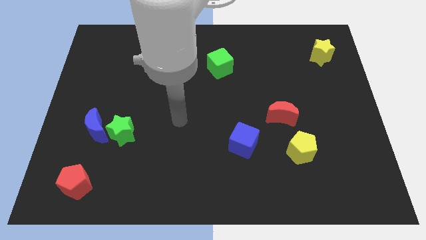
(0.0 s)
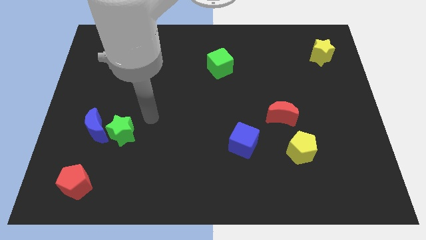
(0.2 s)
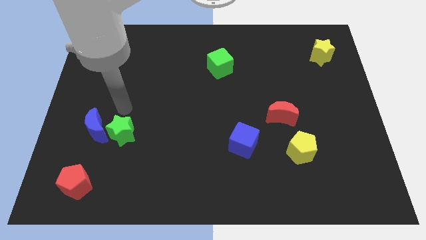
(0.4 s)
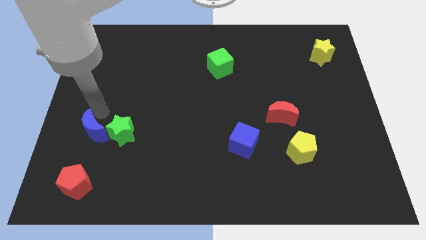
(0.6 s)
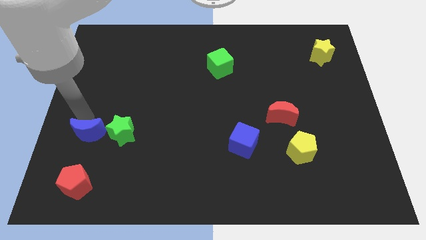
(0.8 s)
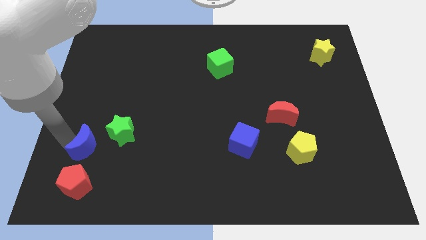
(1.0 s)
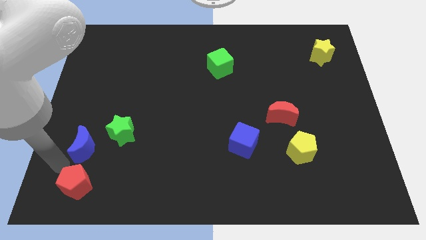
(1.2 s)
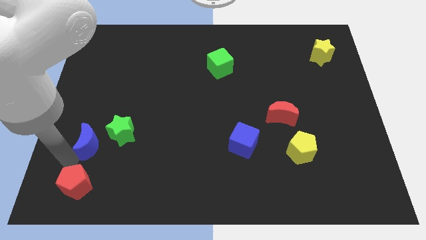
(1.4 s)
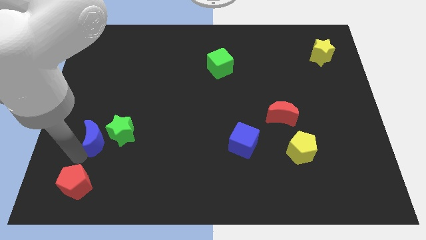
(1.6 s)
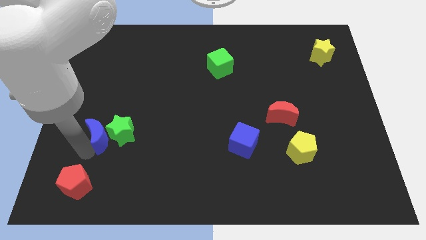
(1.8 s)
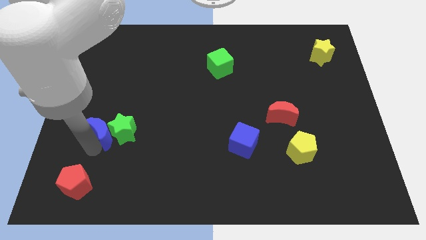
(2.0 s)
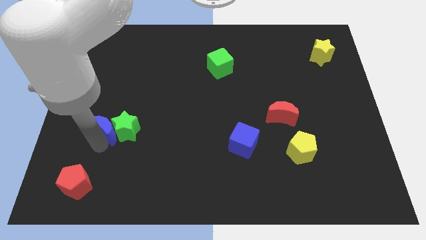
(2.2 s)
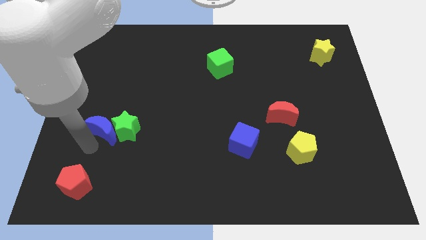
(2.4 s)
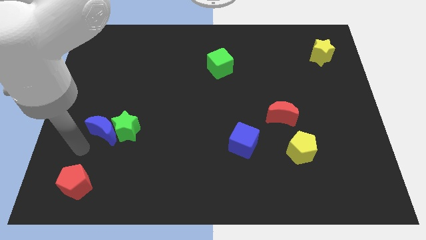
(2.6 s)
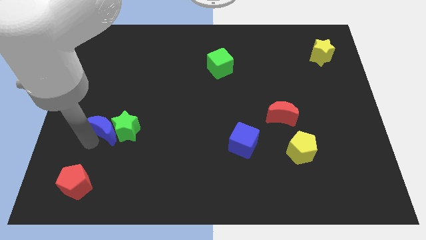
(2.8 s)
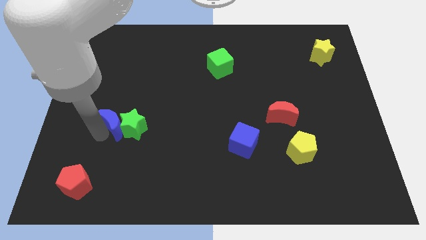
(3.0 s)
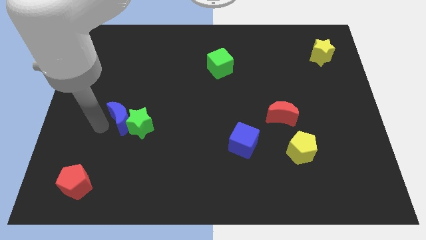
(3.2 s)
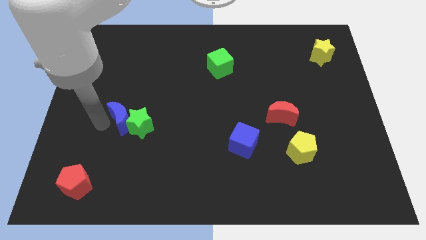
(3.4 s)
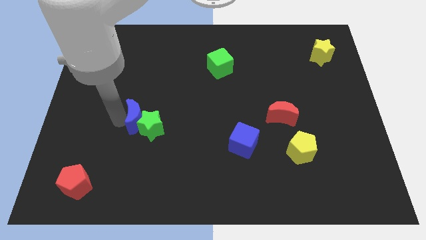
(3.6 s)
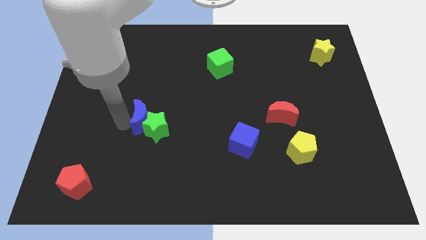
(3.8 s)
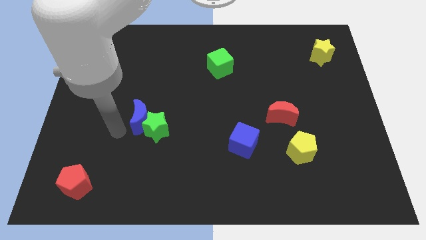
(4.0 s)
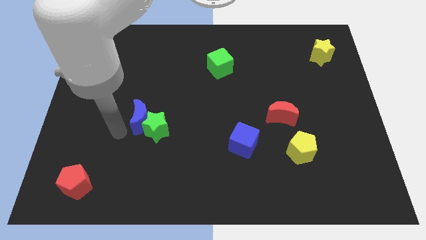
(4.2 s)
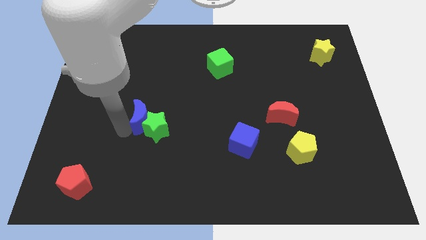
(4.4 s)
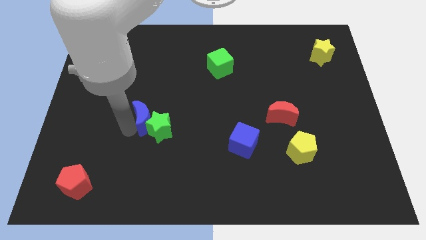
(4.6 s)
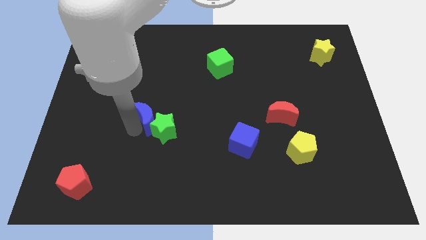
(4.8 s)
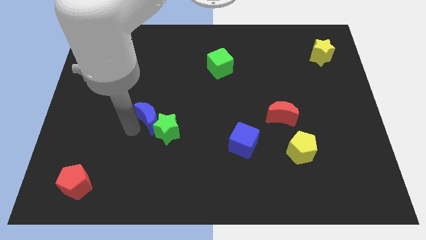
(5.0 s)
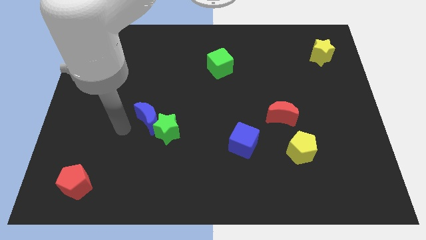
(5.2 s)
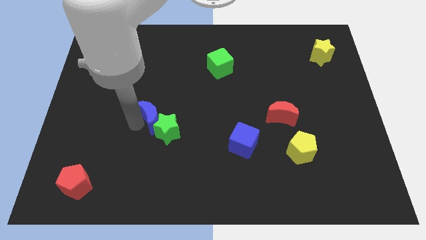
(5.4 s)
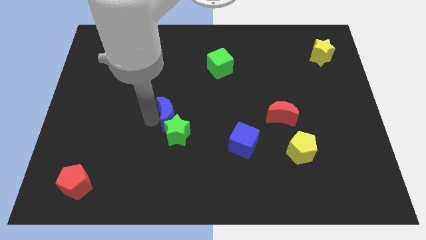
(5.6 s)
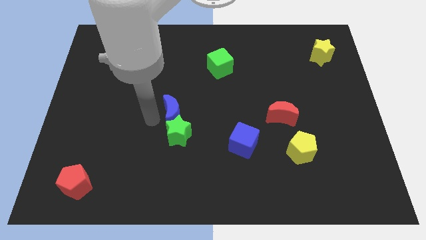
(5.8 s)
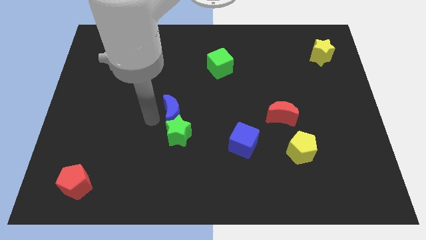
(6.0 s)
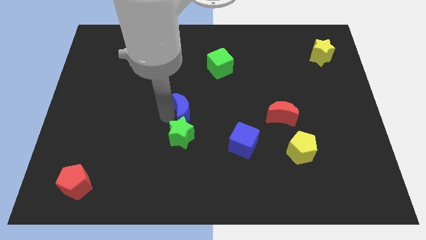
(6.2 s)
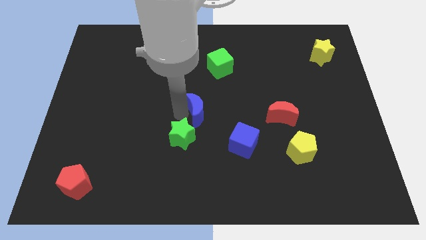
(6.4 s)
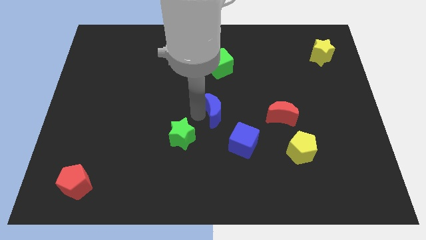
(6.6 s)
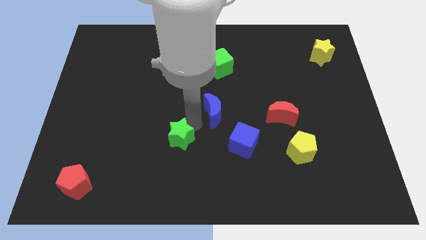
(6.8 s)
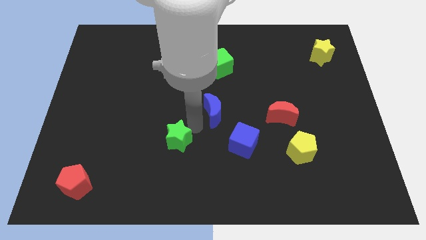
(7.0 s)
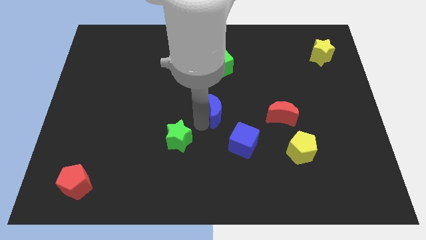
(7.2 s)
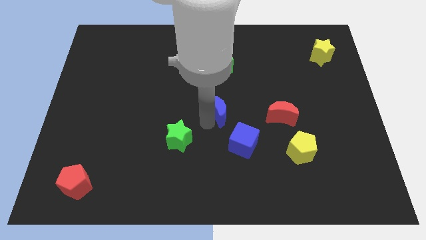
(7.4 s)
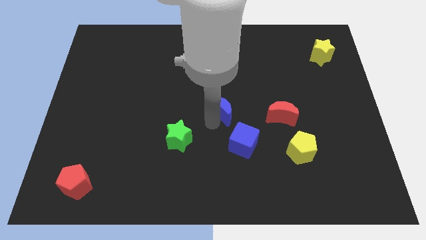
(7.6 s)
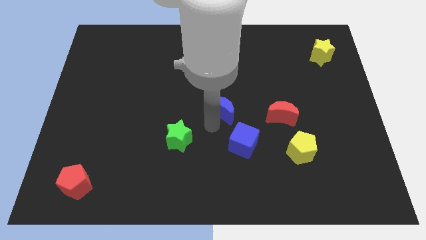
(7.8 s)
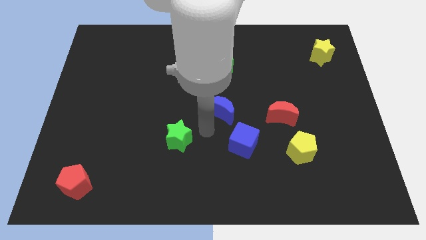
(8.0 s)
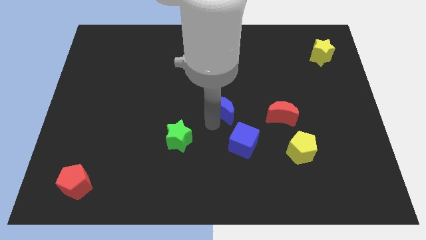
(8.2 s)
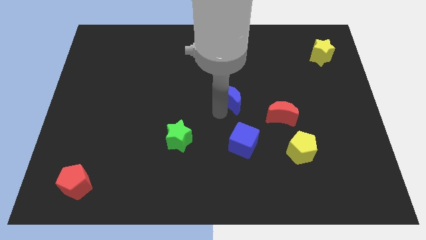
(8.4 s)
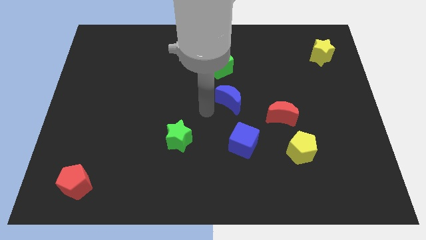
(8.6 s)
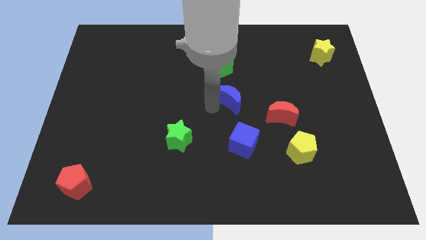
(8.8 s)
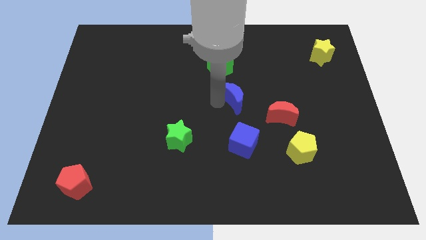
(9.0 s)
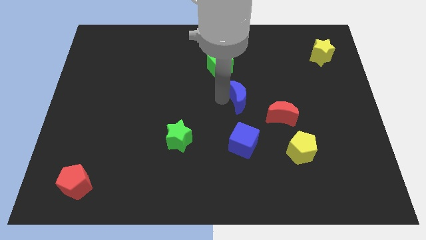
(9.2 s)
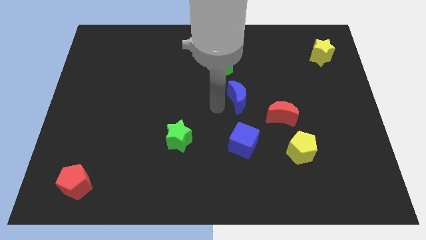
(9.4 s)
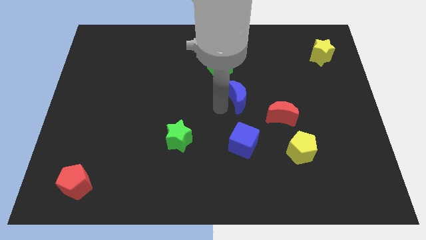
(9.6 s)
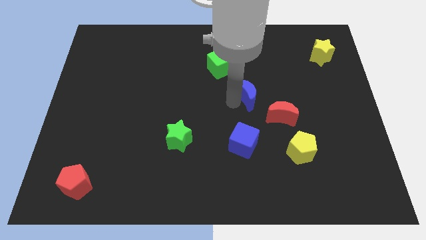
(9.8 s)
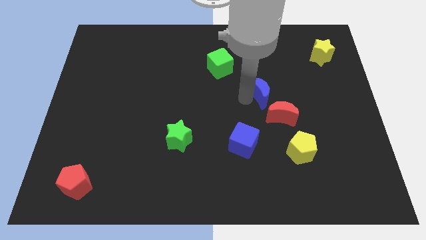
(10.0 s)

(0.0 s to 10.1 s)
slide the blue moon to the top of the red moon

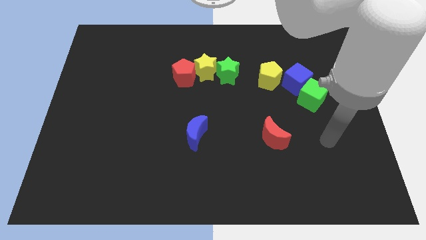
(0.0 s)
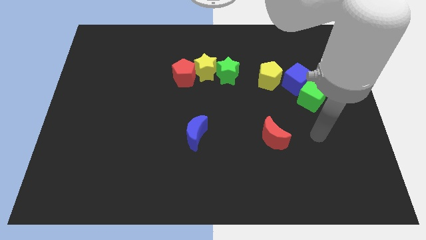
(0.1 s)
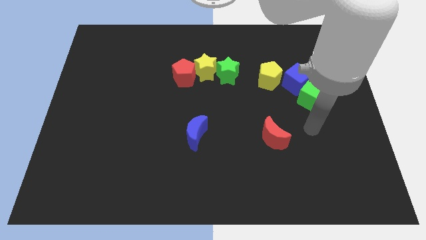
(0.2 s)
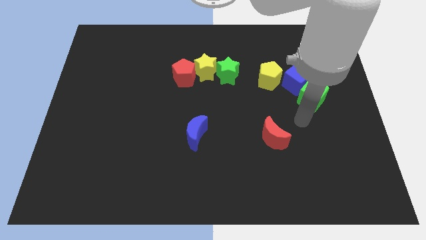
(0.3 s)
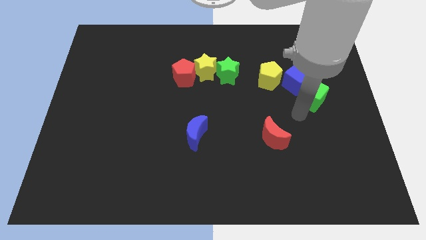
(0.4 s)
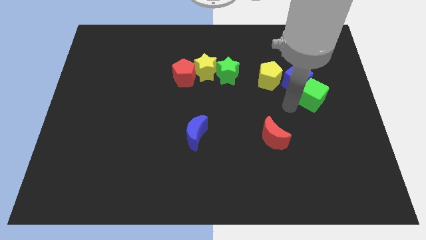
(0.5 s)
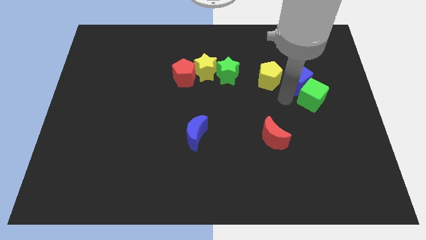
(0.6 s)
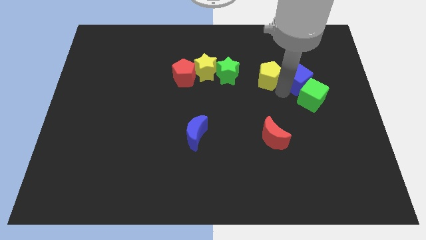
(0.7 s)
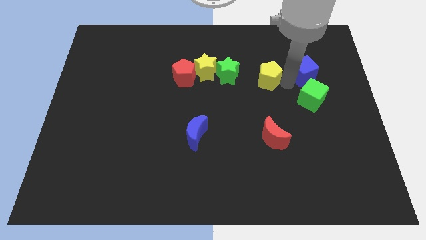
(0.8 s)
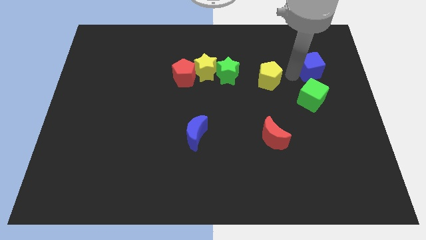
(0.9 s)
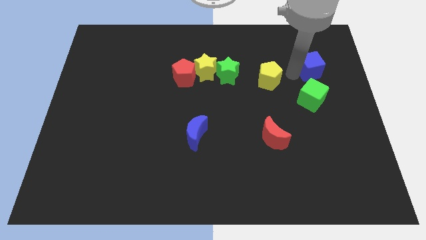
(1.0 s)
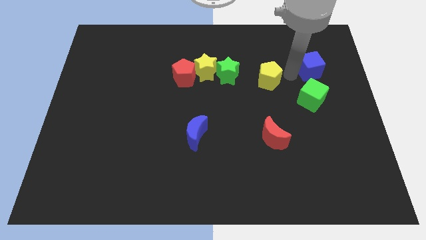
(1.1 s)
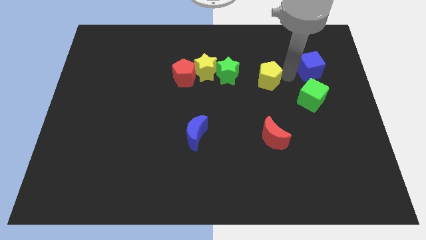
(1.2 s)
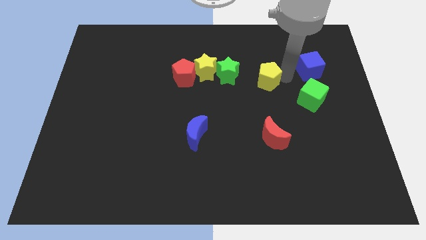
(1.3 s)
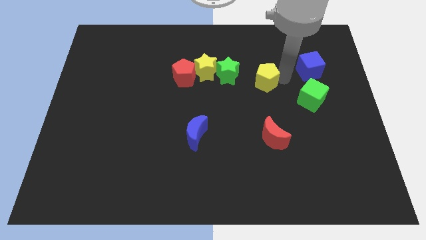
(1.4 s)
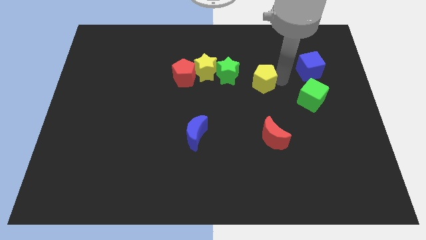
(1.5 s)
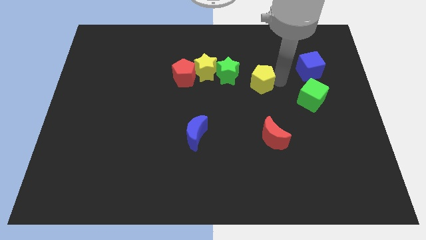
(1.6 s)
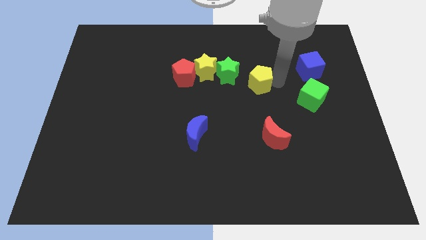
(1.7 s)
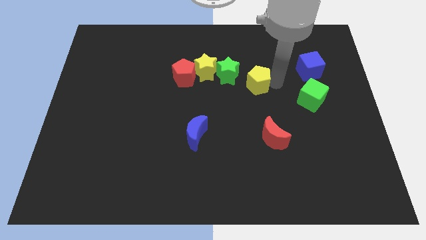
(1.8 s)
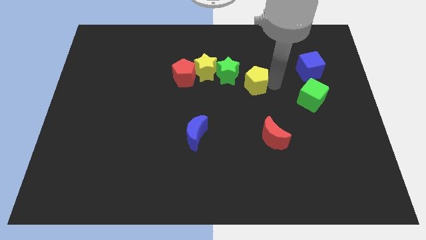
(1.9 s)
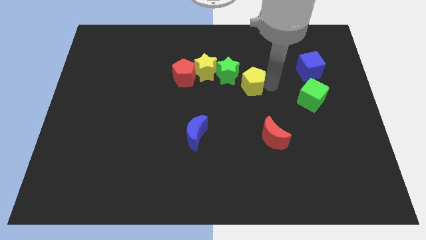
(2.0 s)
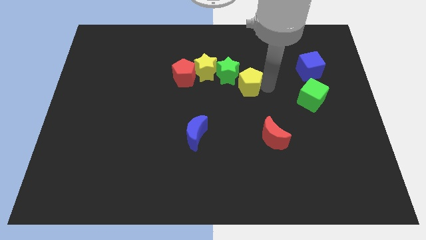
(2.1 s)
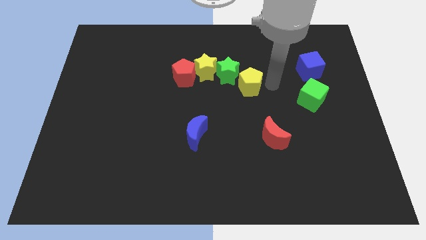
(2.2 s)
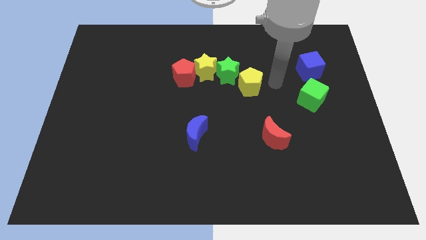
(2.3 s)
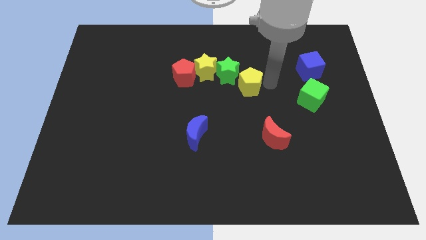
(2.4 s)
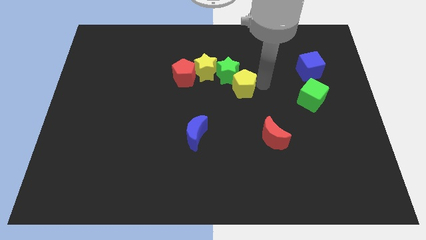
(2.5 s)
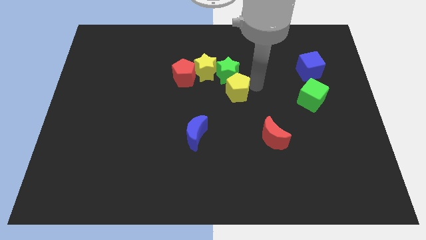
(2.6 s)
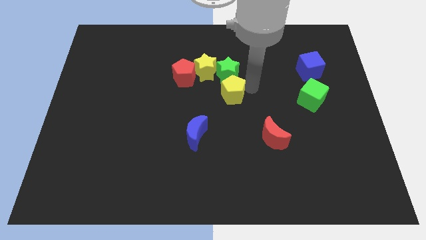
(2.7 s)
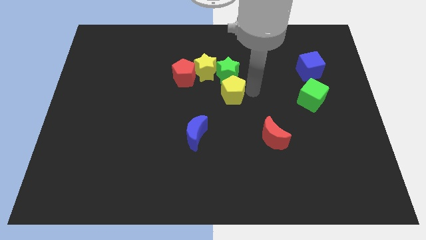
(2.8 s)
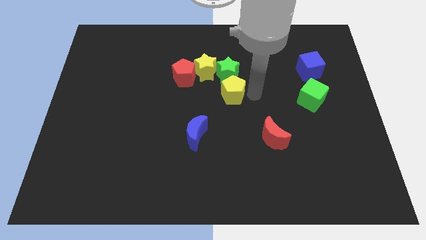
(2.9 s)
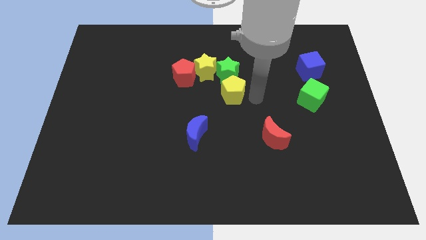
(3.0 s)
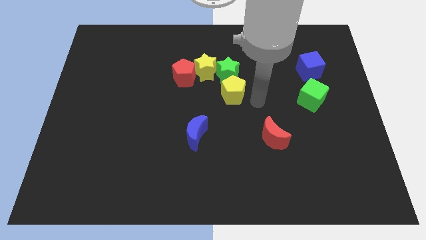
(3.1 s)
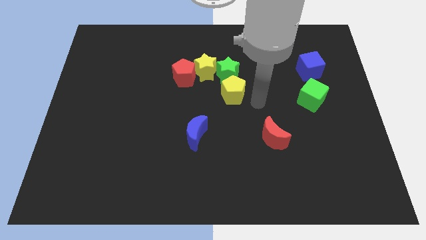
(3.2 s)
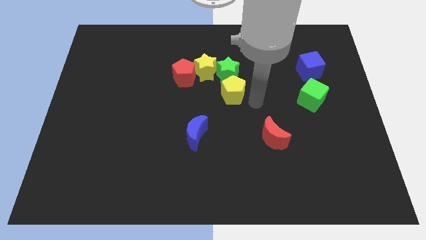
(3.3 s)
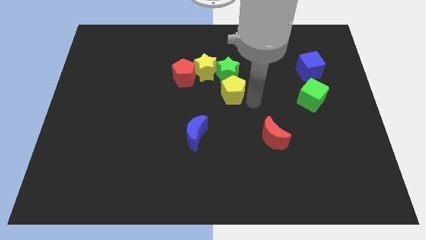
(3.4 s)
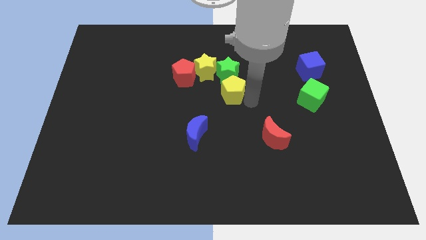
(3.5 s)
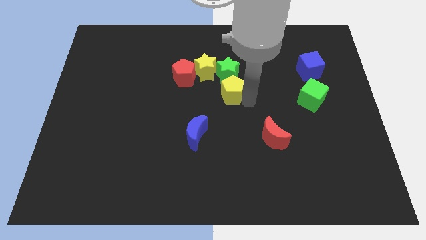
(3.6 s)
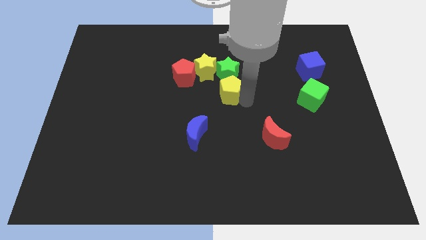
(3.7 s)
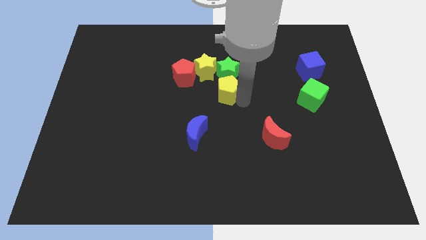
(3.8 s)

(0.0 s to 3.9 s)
put the yellow pentagon to the bottom right of the red pentagon
